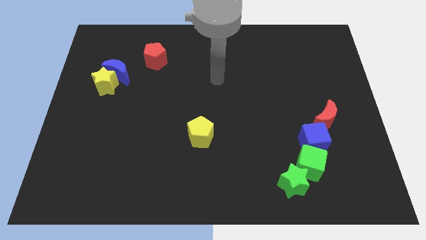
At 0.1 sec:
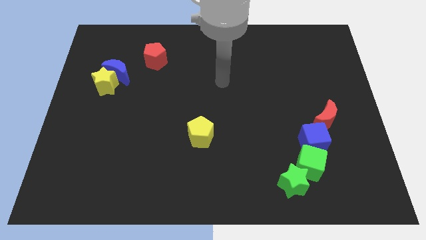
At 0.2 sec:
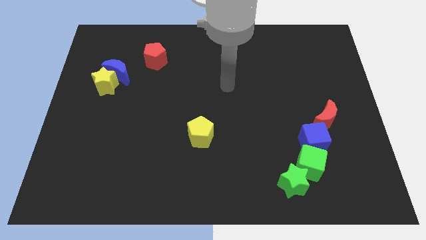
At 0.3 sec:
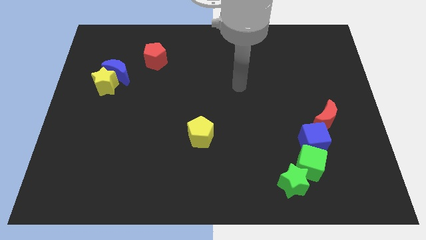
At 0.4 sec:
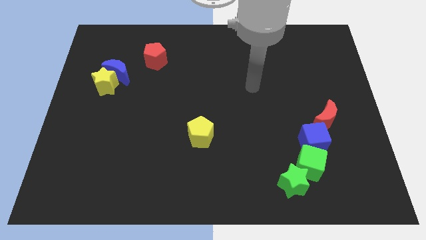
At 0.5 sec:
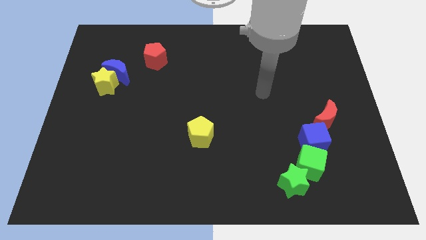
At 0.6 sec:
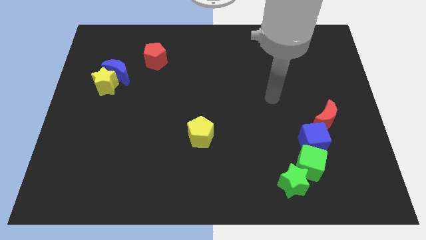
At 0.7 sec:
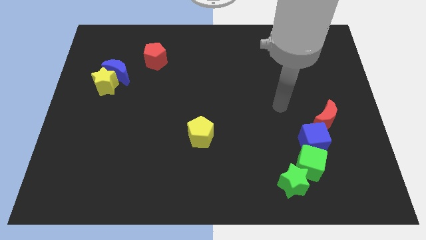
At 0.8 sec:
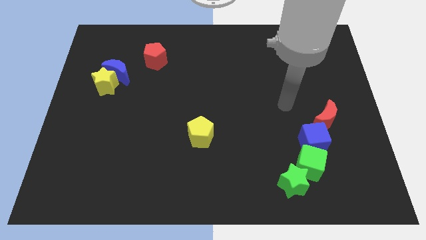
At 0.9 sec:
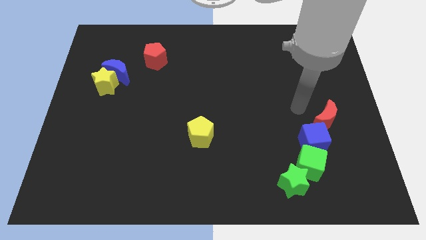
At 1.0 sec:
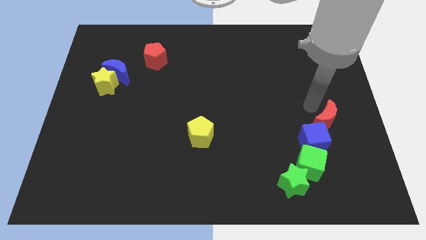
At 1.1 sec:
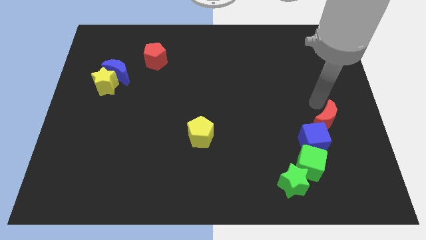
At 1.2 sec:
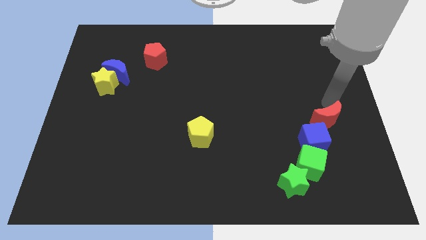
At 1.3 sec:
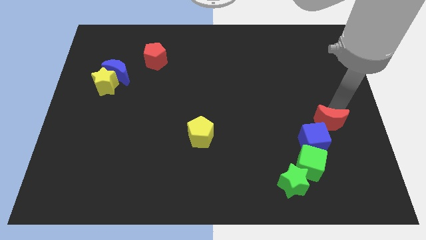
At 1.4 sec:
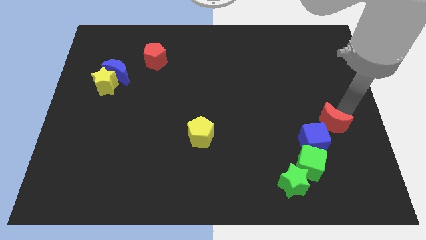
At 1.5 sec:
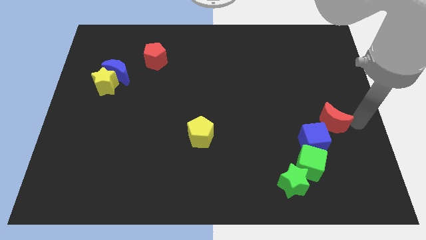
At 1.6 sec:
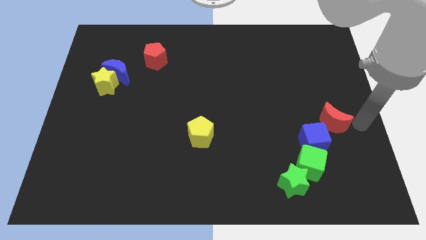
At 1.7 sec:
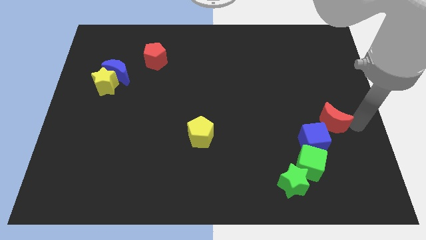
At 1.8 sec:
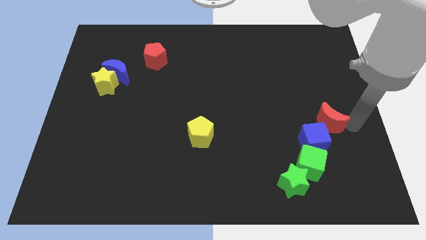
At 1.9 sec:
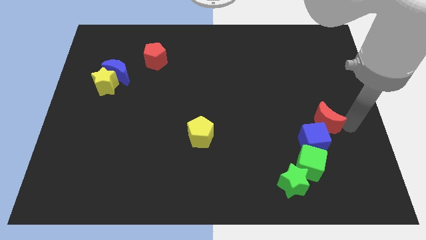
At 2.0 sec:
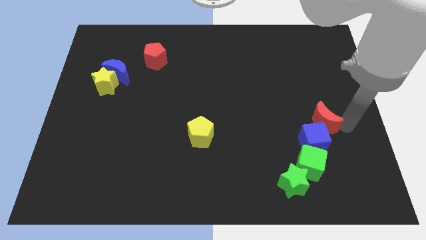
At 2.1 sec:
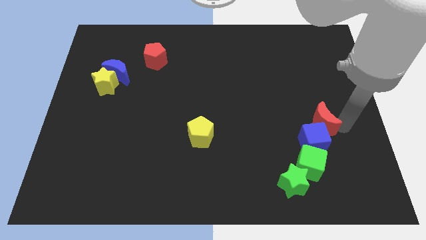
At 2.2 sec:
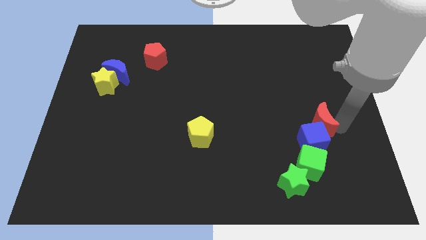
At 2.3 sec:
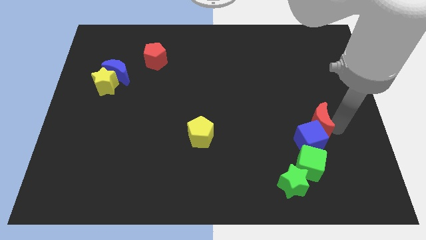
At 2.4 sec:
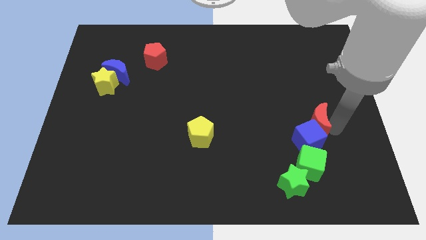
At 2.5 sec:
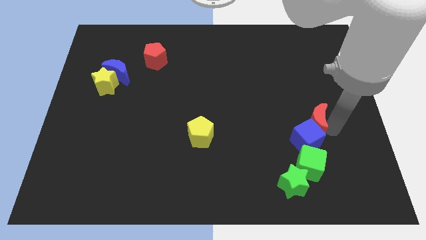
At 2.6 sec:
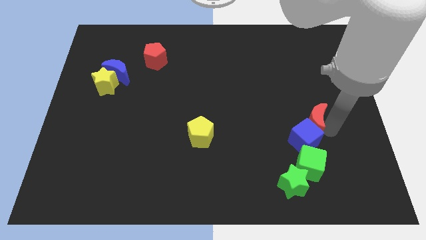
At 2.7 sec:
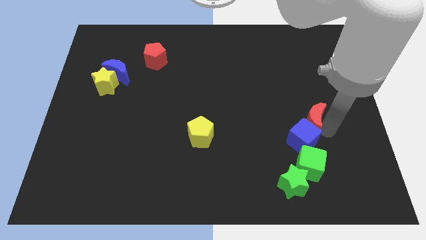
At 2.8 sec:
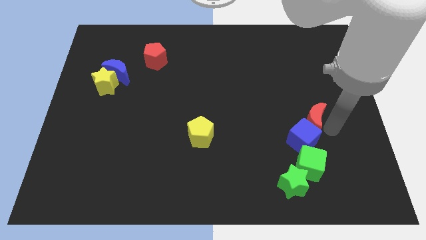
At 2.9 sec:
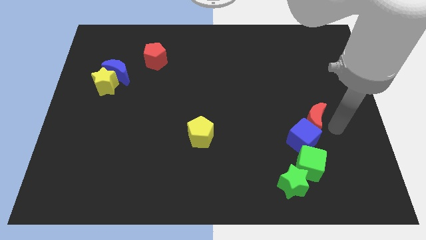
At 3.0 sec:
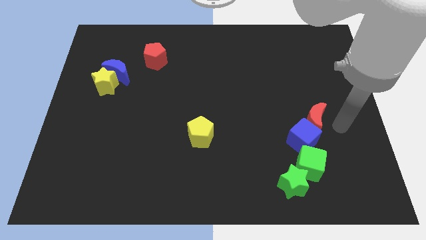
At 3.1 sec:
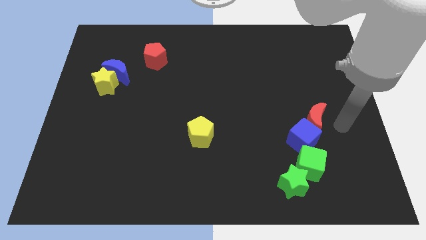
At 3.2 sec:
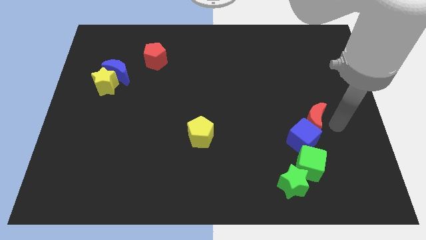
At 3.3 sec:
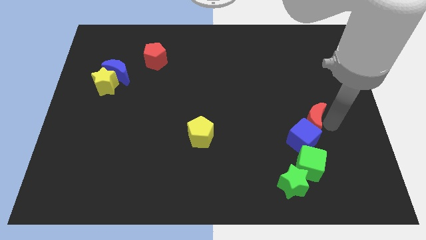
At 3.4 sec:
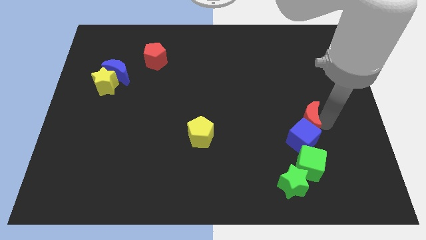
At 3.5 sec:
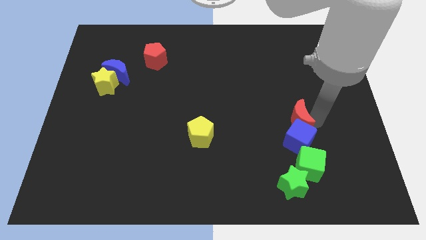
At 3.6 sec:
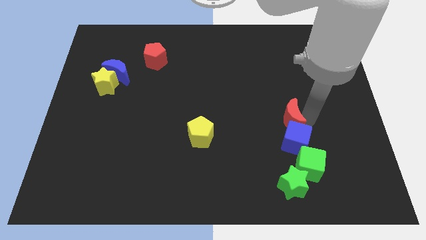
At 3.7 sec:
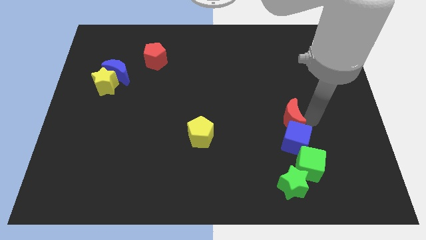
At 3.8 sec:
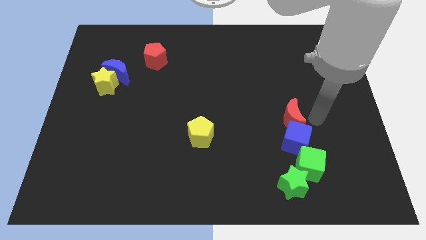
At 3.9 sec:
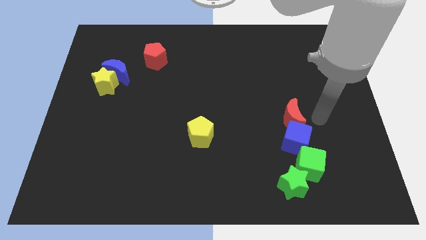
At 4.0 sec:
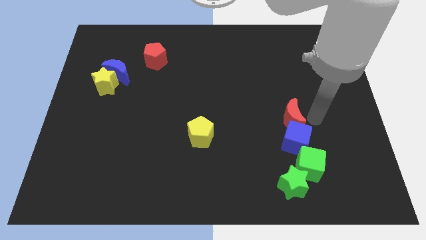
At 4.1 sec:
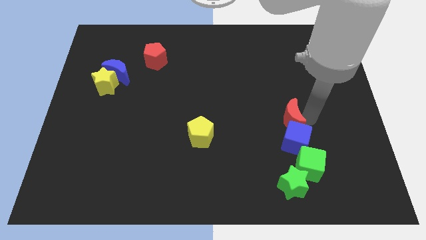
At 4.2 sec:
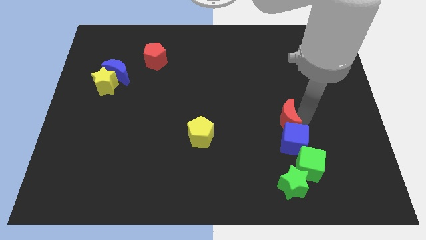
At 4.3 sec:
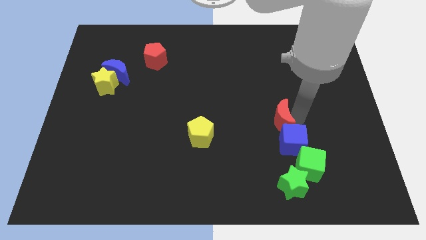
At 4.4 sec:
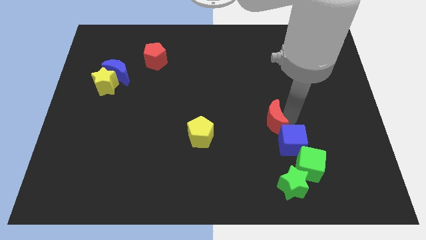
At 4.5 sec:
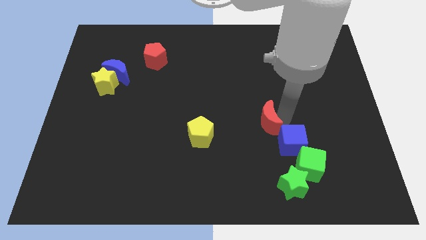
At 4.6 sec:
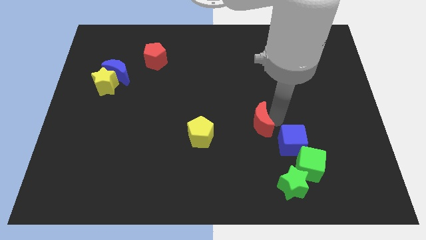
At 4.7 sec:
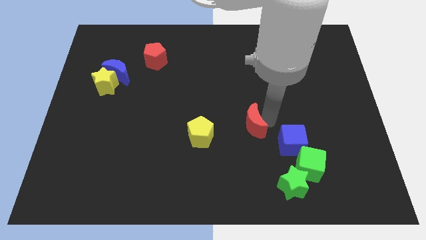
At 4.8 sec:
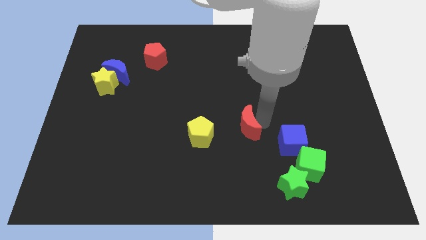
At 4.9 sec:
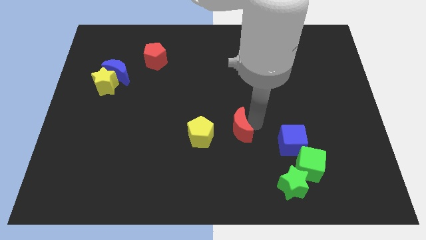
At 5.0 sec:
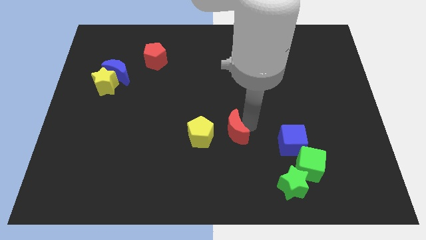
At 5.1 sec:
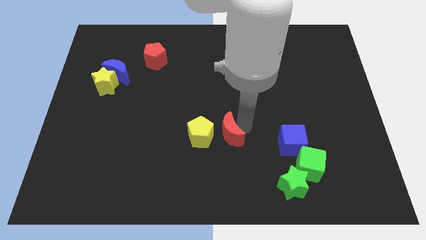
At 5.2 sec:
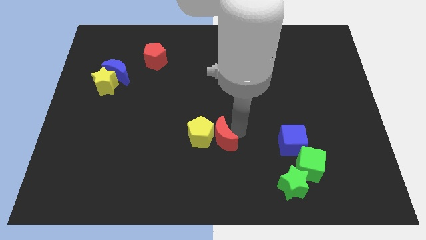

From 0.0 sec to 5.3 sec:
push the red moon next to the yellow pentagon

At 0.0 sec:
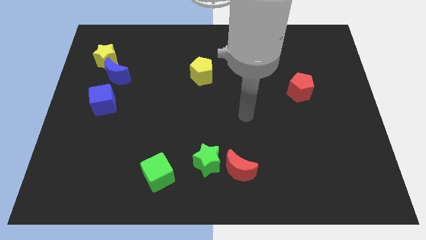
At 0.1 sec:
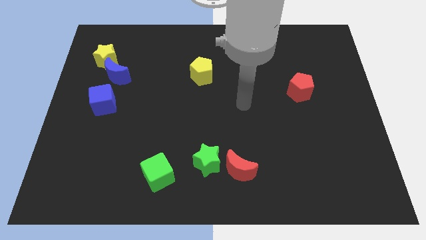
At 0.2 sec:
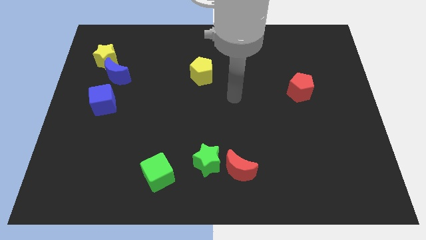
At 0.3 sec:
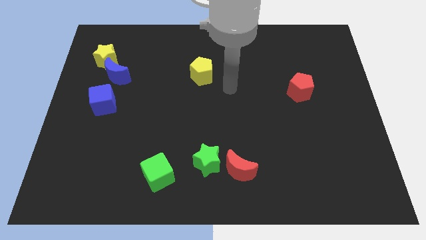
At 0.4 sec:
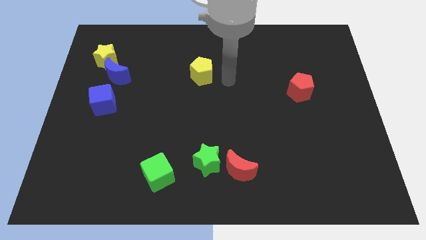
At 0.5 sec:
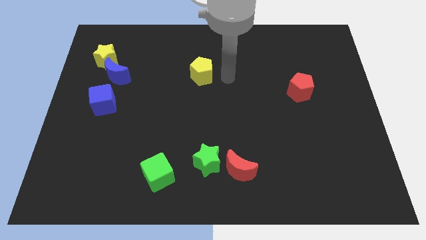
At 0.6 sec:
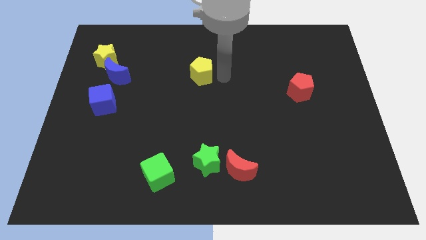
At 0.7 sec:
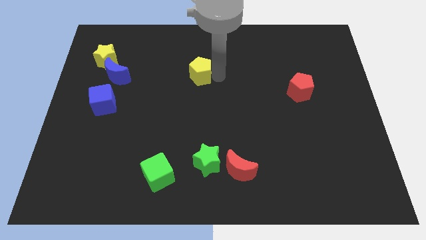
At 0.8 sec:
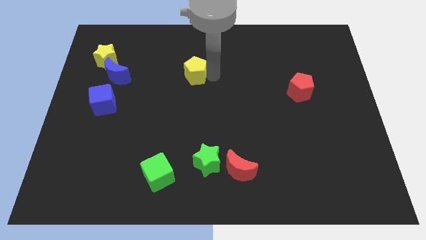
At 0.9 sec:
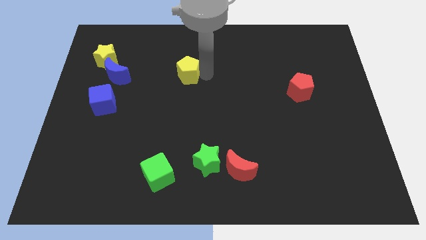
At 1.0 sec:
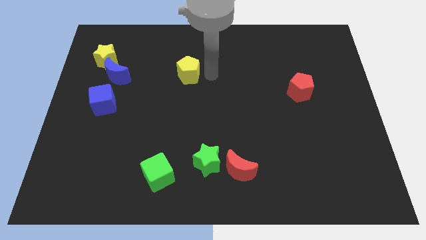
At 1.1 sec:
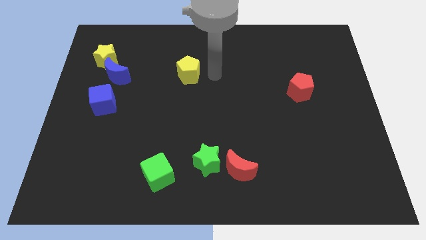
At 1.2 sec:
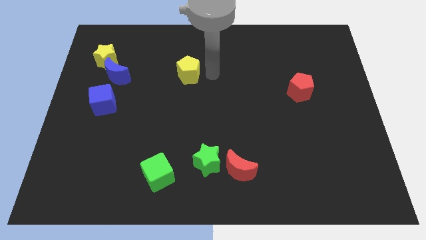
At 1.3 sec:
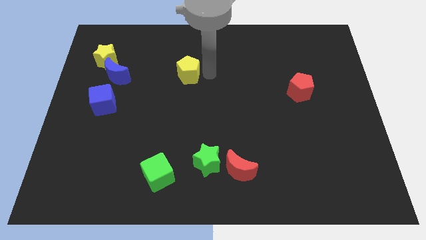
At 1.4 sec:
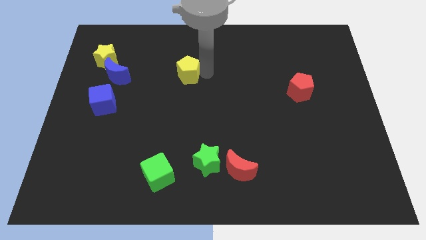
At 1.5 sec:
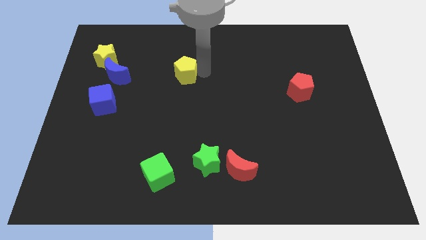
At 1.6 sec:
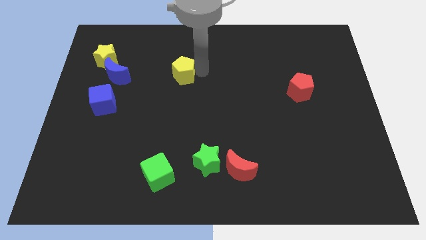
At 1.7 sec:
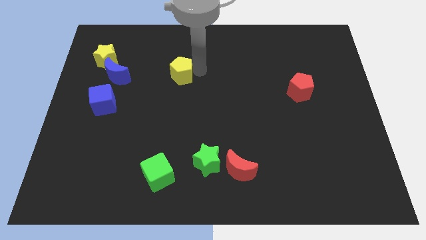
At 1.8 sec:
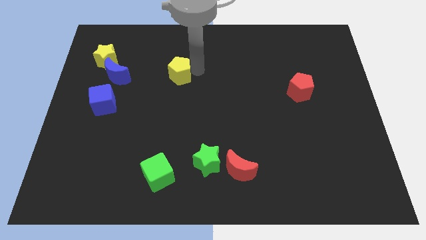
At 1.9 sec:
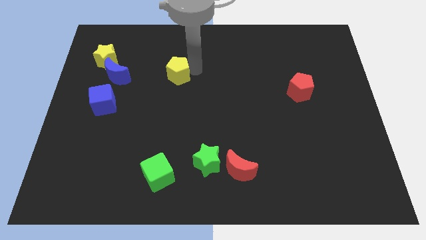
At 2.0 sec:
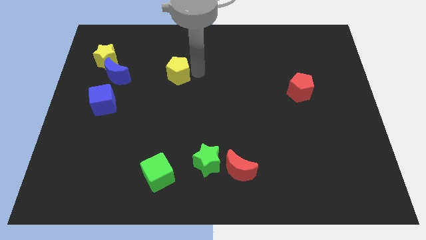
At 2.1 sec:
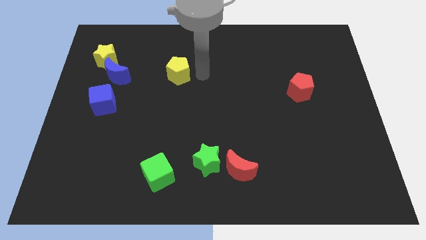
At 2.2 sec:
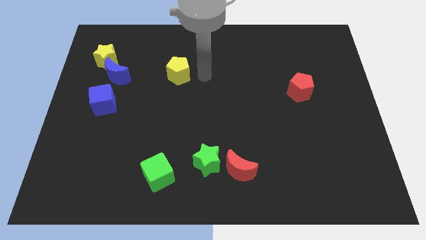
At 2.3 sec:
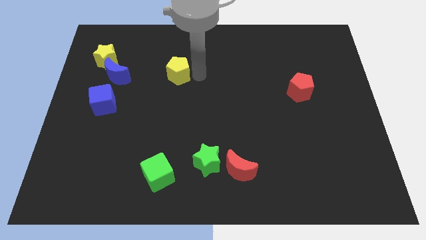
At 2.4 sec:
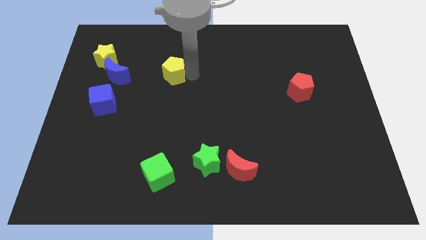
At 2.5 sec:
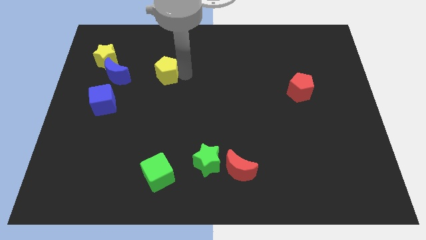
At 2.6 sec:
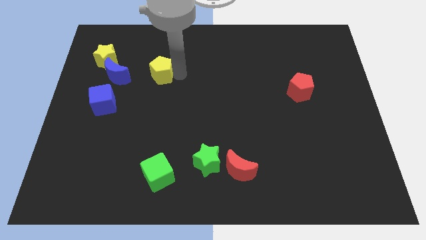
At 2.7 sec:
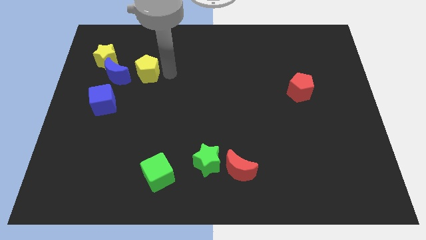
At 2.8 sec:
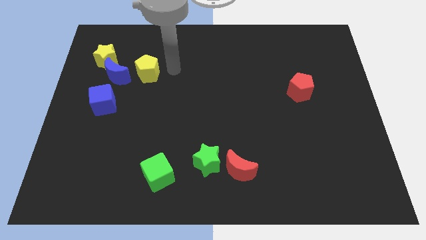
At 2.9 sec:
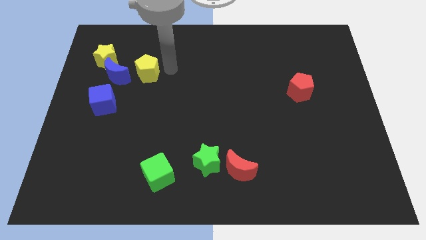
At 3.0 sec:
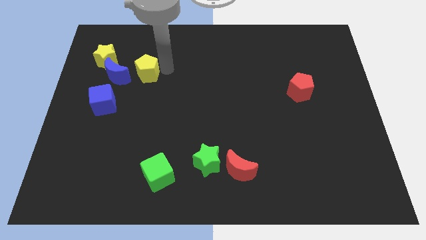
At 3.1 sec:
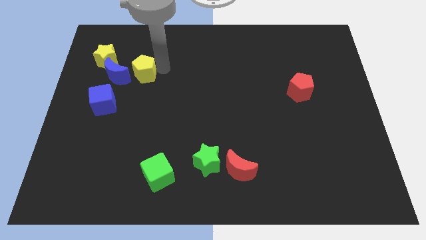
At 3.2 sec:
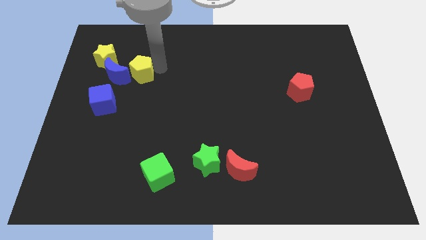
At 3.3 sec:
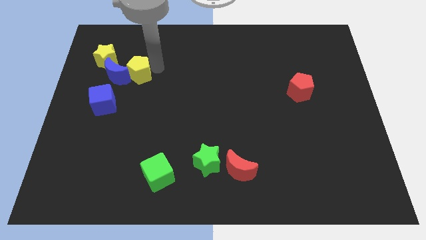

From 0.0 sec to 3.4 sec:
move the yellow pentagon to the blue moon
